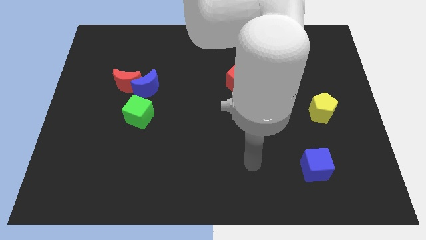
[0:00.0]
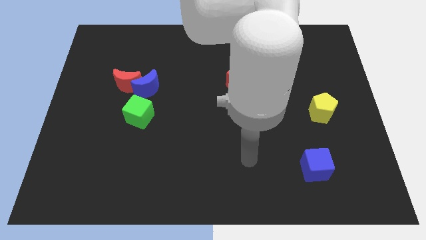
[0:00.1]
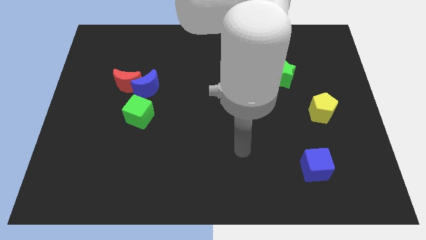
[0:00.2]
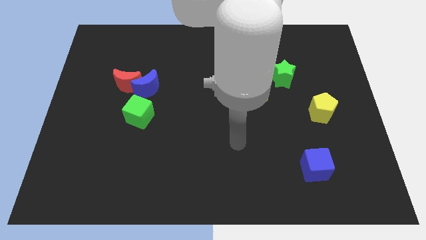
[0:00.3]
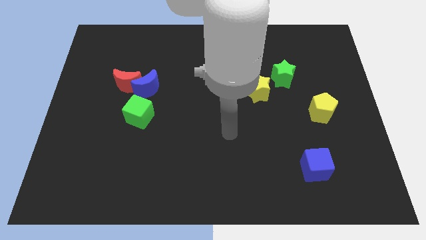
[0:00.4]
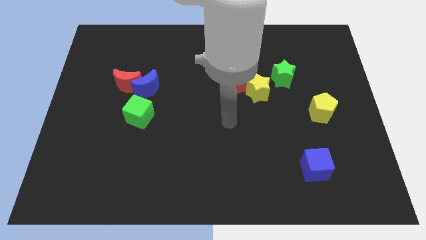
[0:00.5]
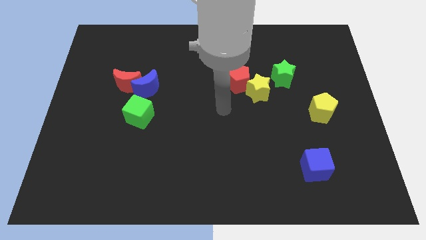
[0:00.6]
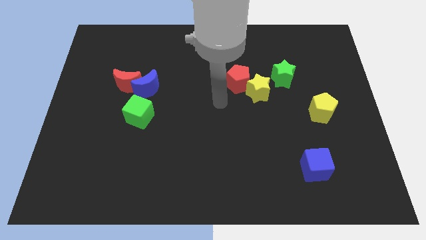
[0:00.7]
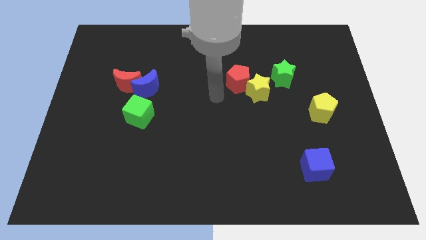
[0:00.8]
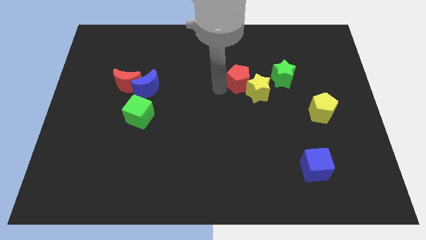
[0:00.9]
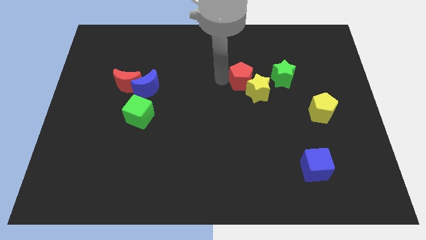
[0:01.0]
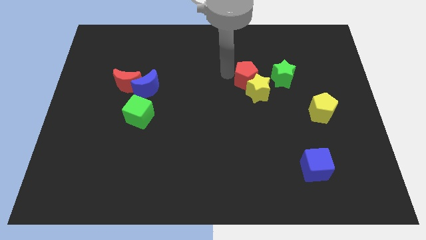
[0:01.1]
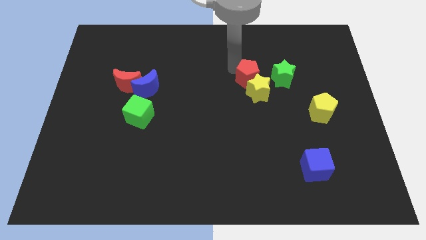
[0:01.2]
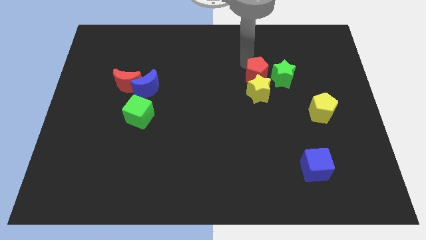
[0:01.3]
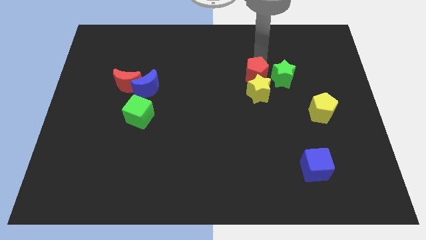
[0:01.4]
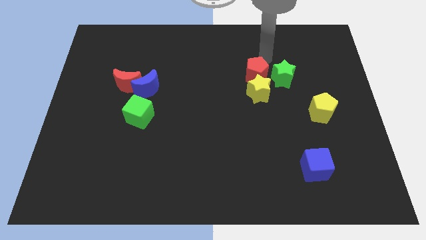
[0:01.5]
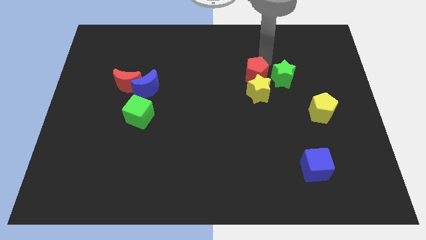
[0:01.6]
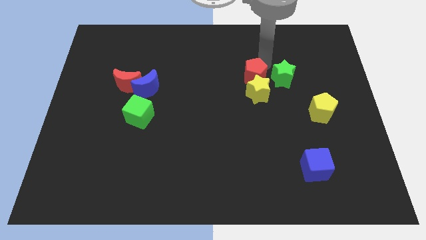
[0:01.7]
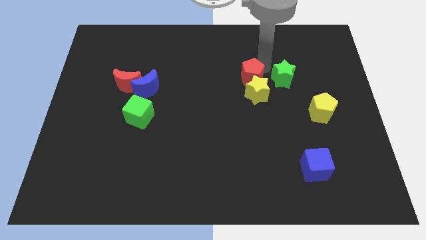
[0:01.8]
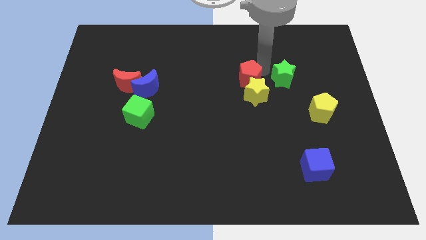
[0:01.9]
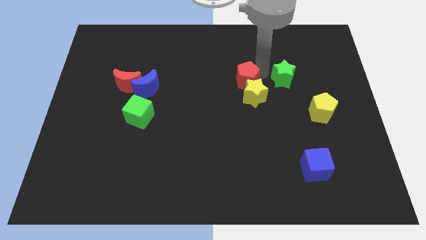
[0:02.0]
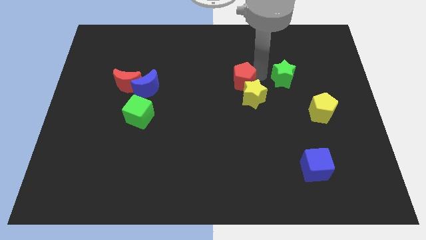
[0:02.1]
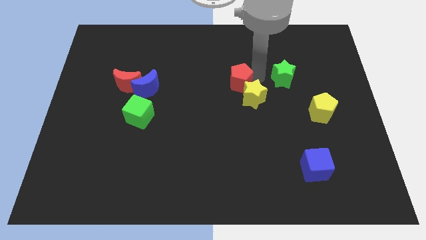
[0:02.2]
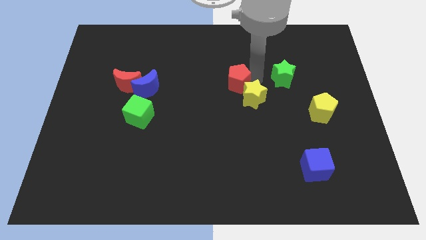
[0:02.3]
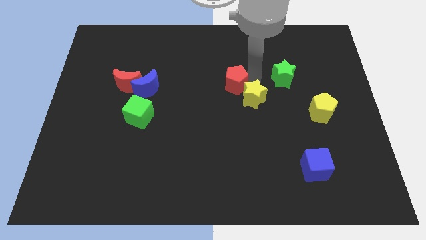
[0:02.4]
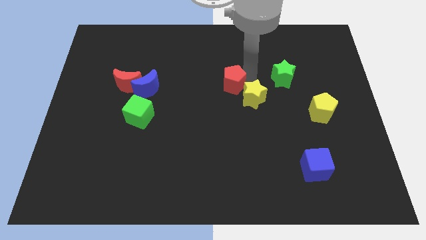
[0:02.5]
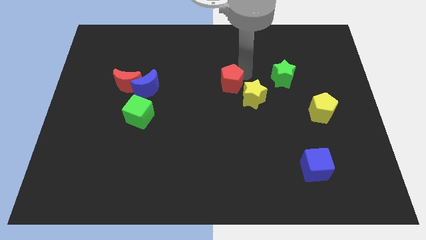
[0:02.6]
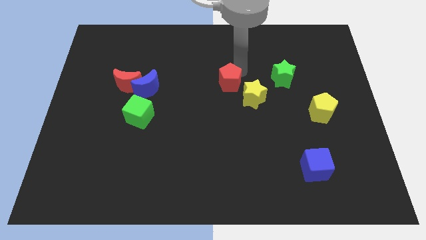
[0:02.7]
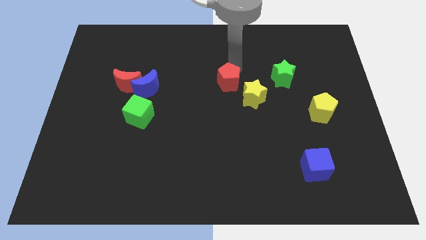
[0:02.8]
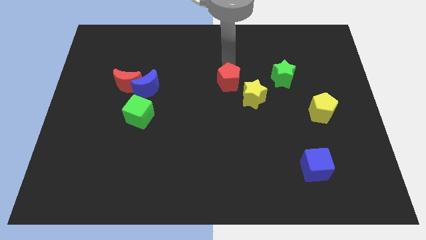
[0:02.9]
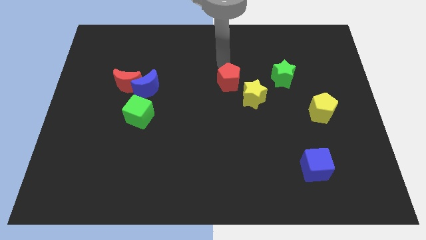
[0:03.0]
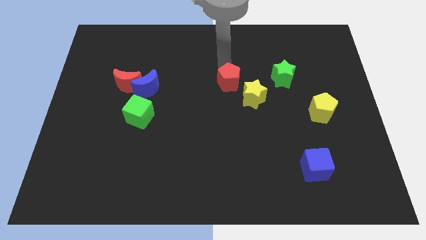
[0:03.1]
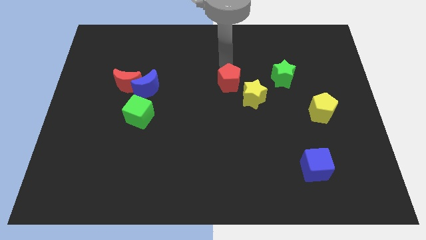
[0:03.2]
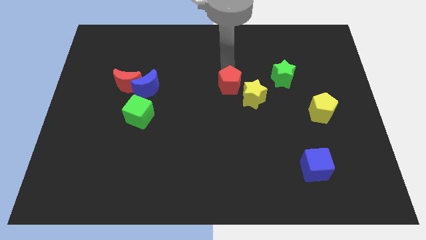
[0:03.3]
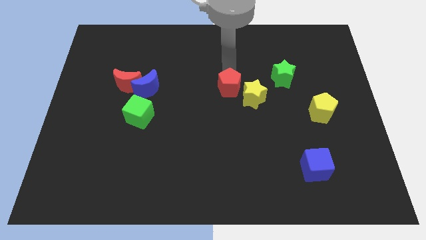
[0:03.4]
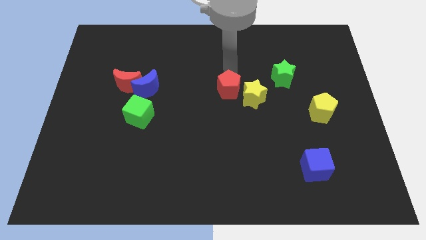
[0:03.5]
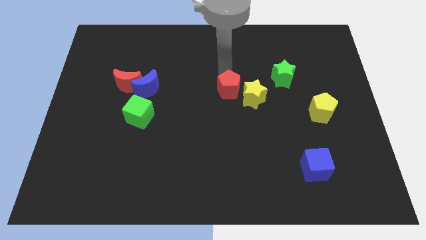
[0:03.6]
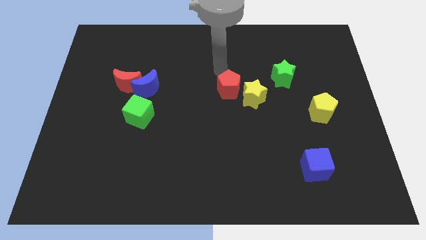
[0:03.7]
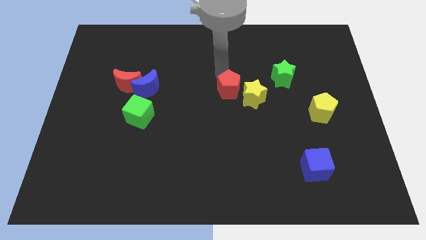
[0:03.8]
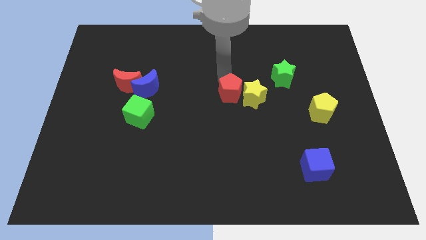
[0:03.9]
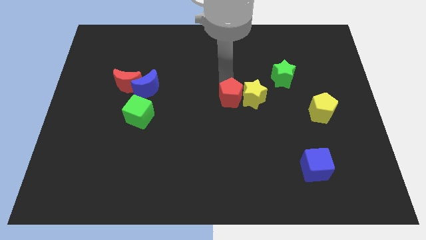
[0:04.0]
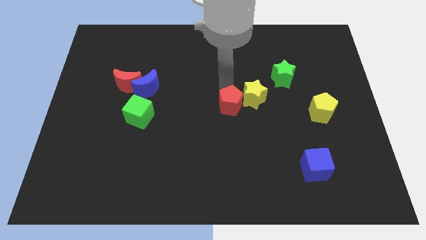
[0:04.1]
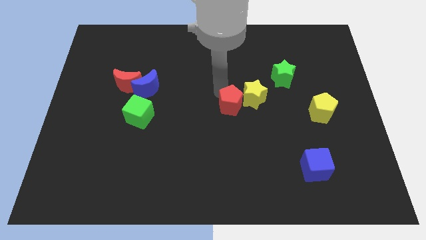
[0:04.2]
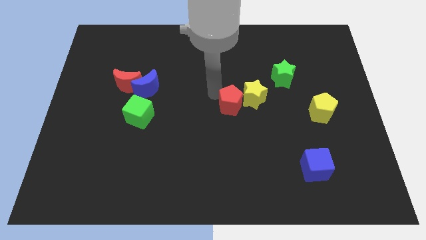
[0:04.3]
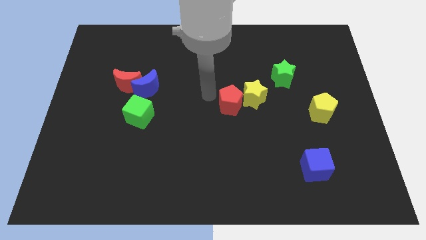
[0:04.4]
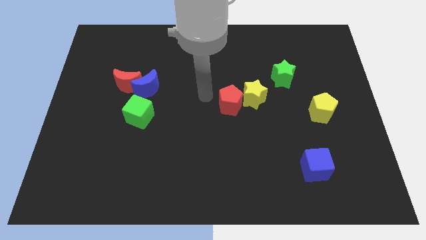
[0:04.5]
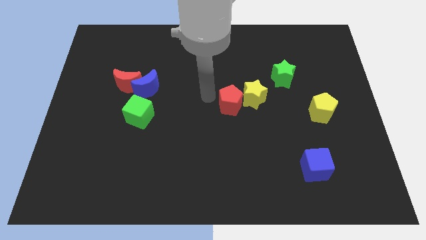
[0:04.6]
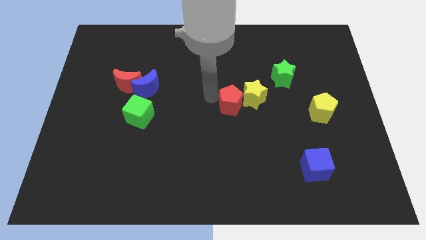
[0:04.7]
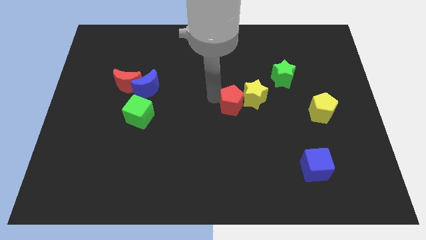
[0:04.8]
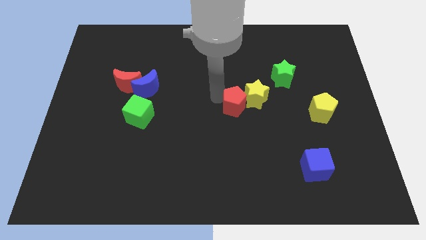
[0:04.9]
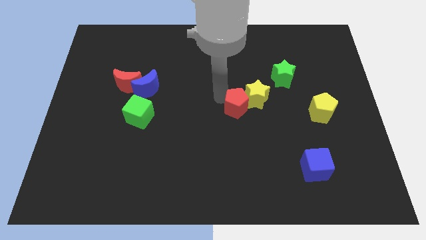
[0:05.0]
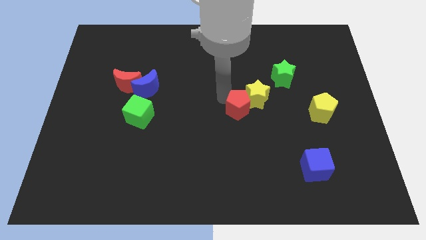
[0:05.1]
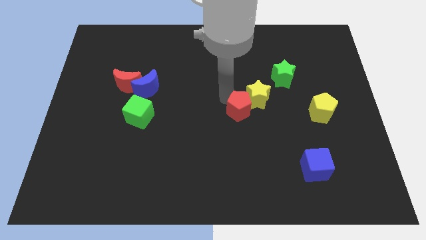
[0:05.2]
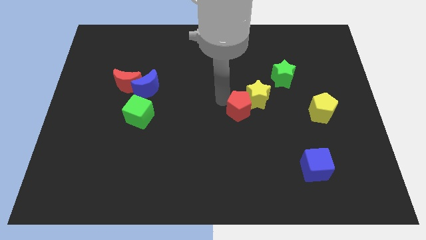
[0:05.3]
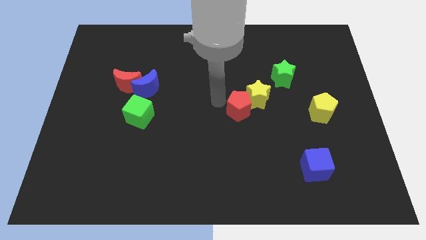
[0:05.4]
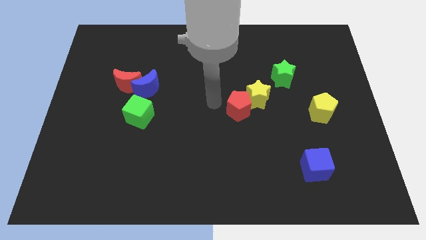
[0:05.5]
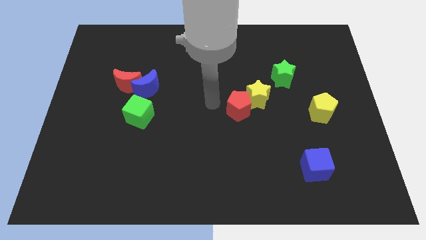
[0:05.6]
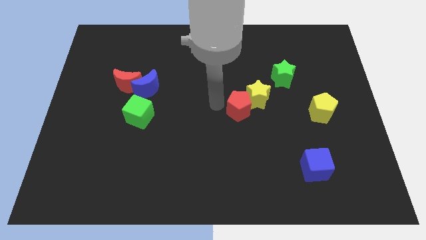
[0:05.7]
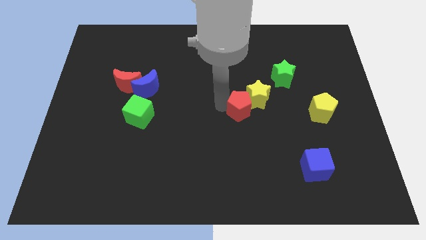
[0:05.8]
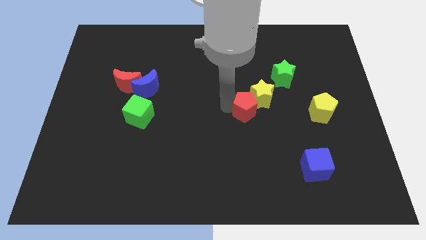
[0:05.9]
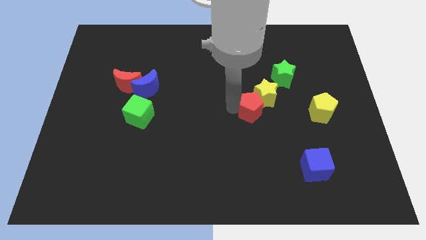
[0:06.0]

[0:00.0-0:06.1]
slide the red pentagon down and to the right slightly

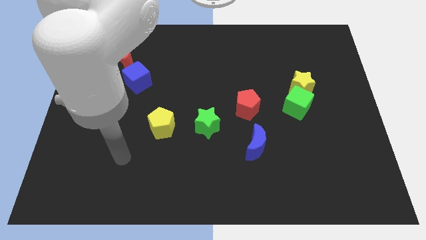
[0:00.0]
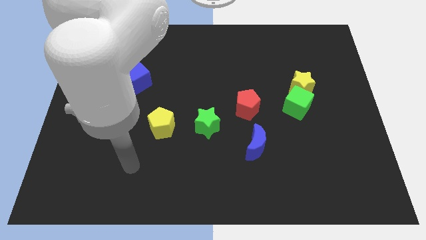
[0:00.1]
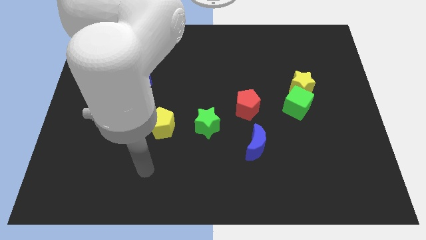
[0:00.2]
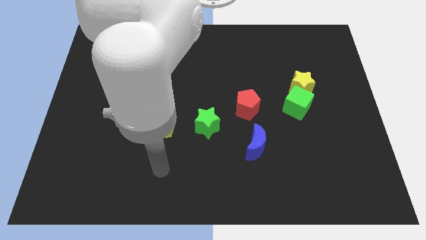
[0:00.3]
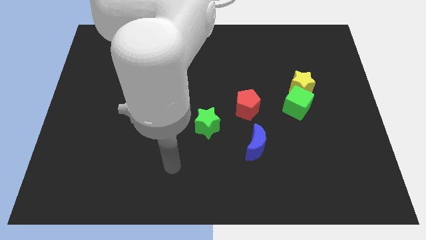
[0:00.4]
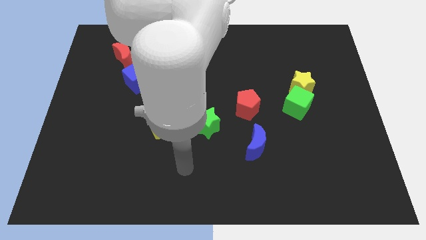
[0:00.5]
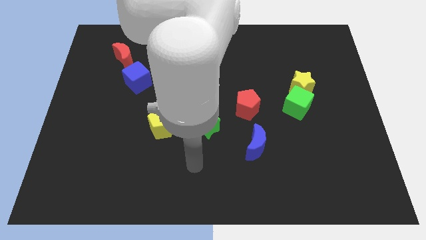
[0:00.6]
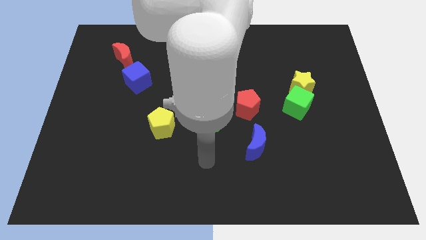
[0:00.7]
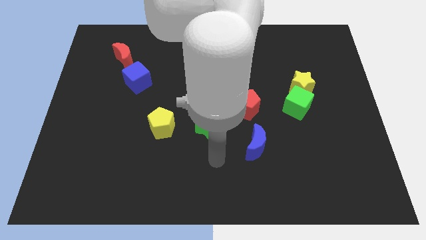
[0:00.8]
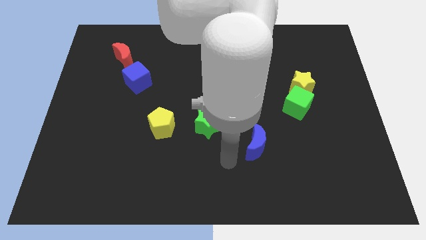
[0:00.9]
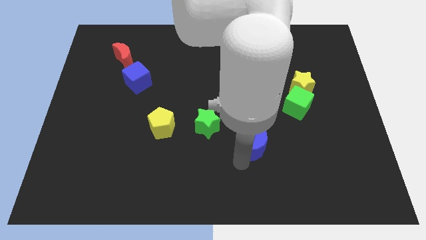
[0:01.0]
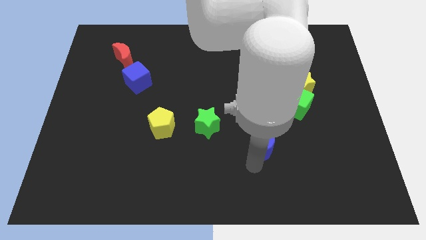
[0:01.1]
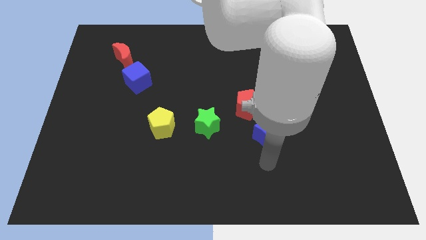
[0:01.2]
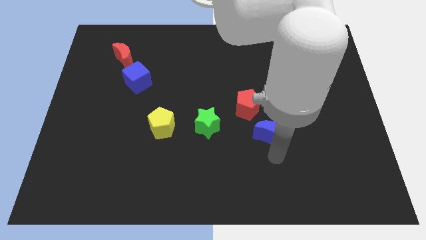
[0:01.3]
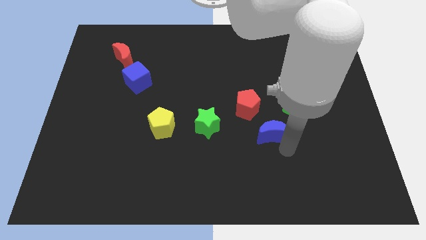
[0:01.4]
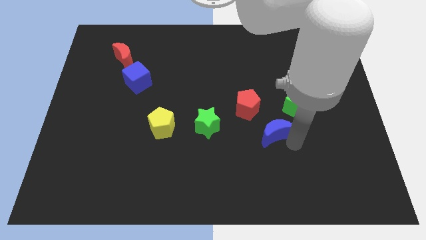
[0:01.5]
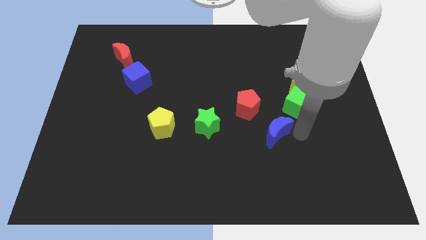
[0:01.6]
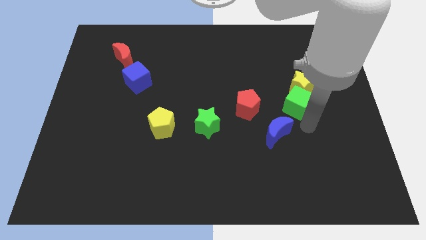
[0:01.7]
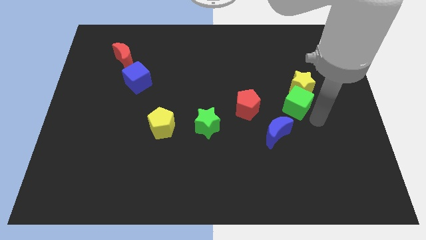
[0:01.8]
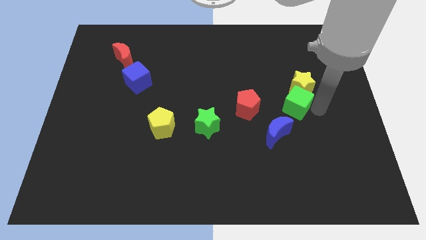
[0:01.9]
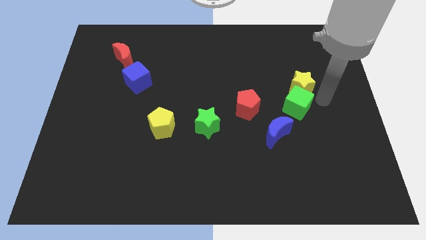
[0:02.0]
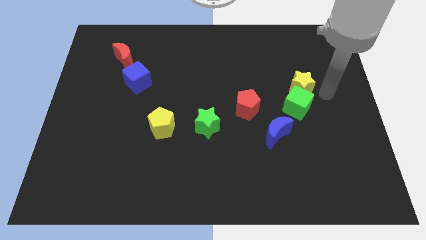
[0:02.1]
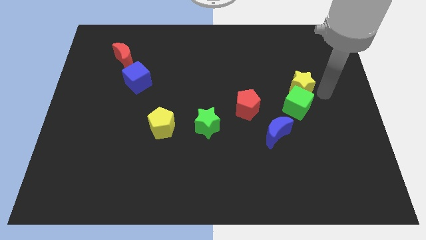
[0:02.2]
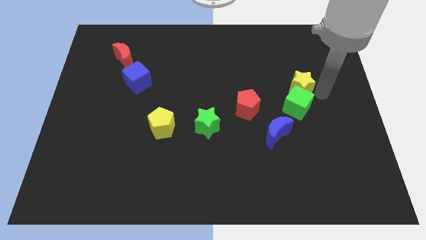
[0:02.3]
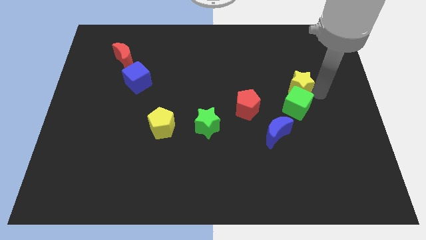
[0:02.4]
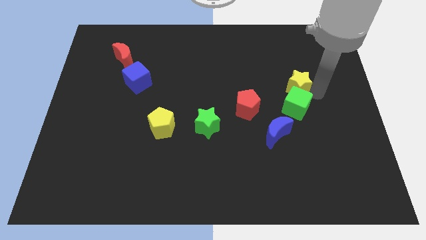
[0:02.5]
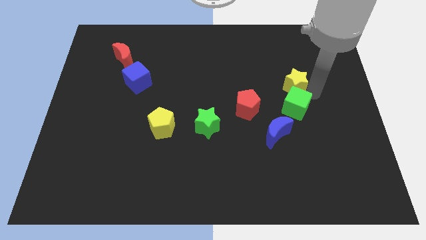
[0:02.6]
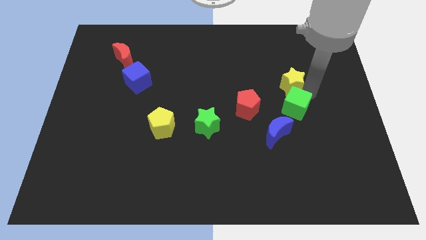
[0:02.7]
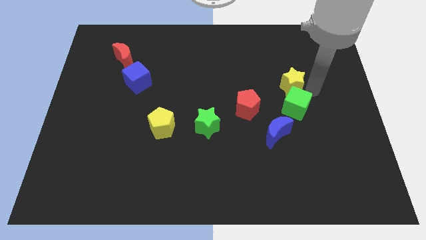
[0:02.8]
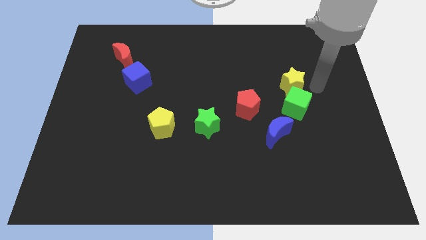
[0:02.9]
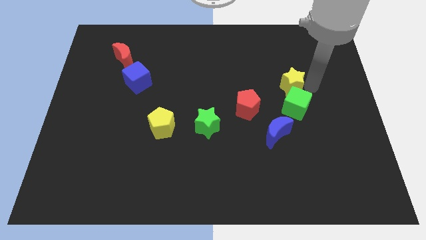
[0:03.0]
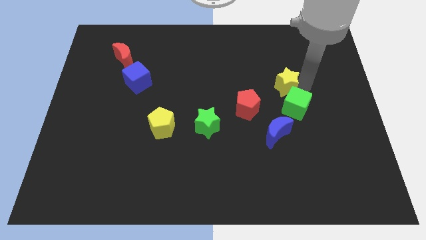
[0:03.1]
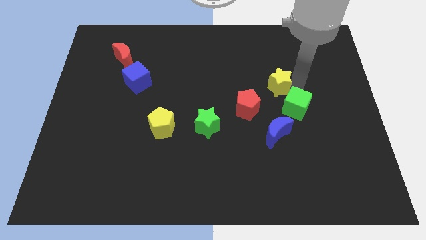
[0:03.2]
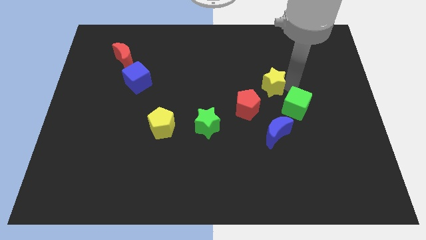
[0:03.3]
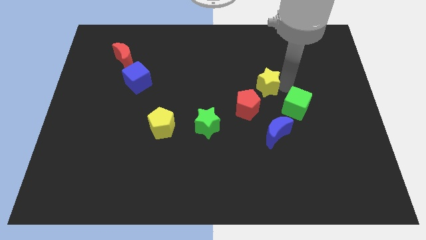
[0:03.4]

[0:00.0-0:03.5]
move the yellow star slightly left
